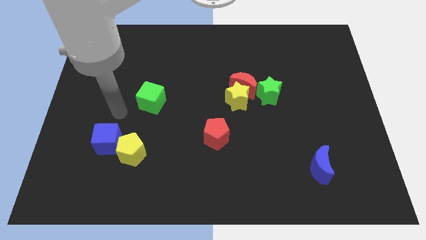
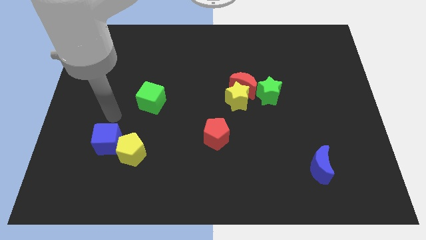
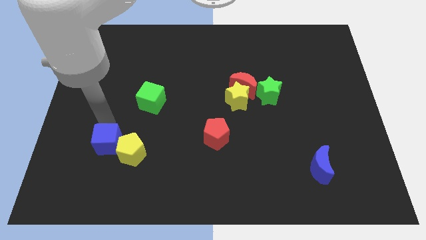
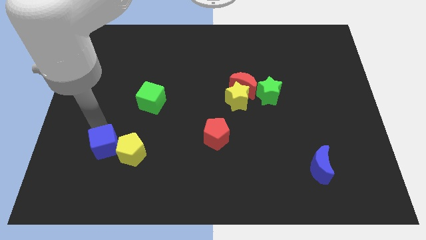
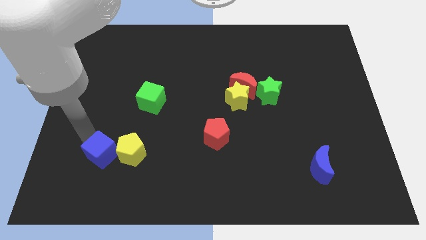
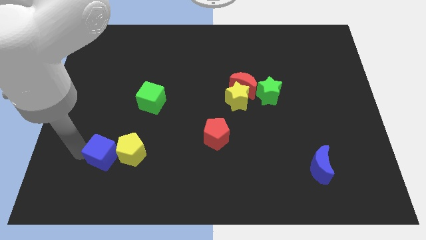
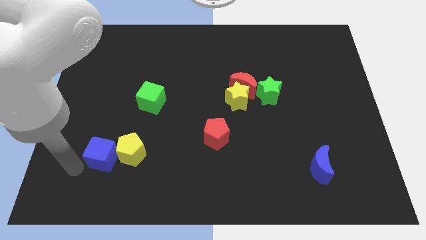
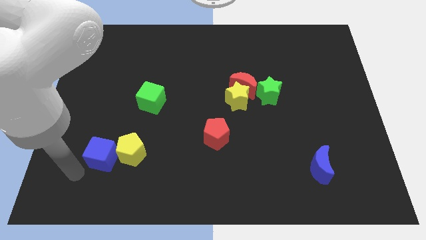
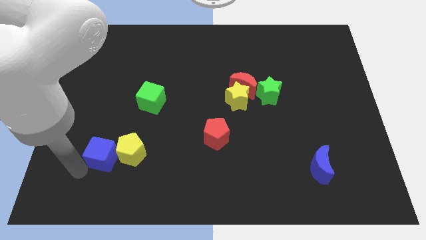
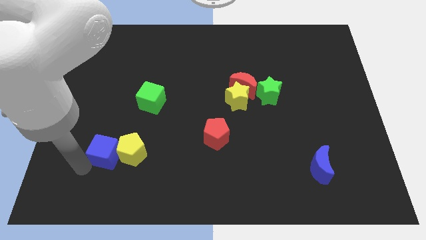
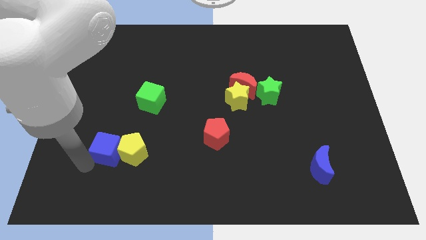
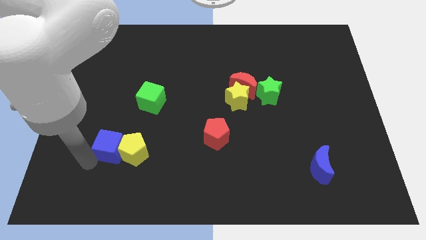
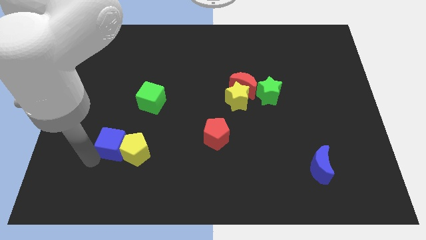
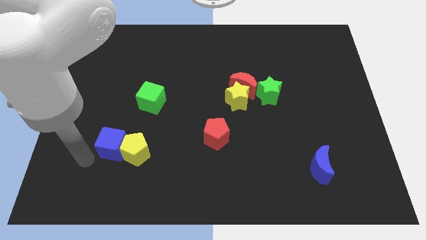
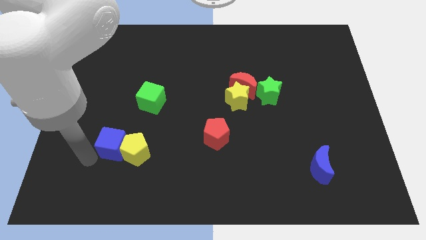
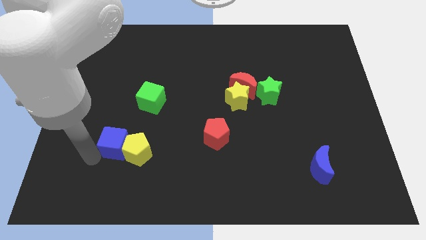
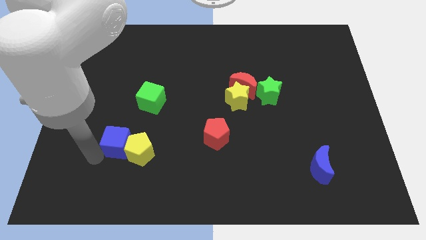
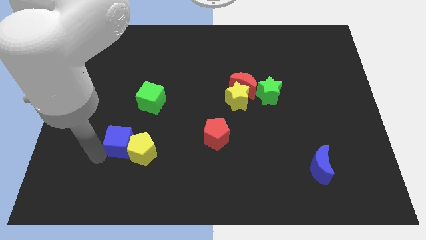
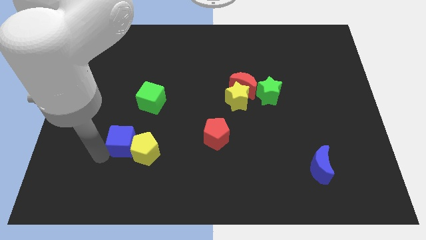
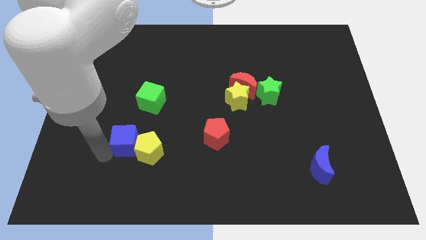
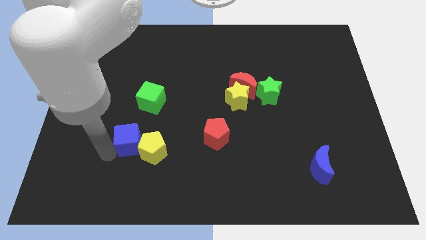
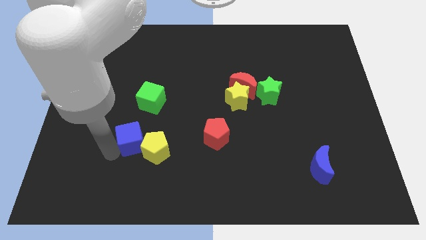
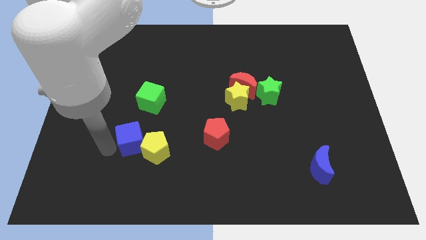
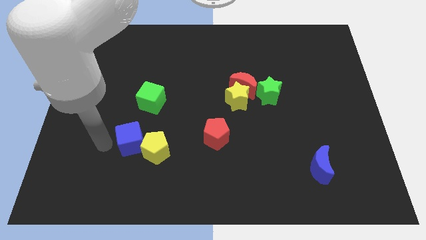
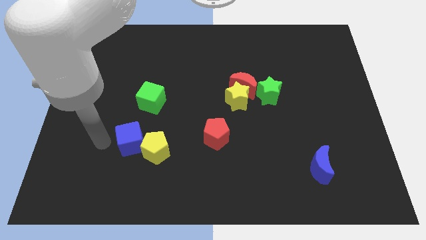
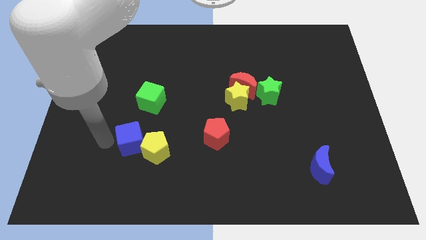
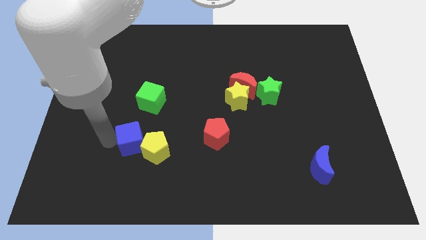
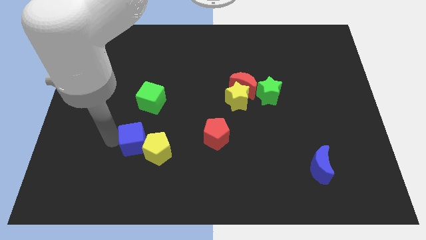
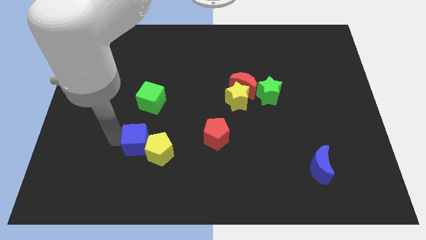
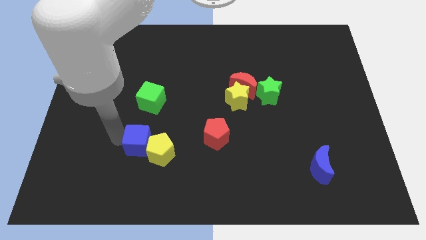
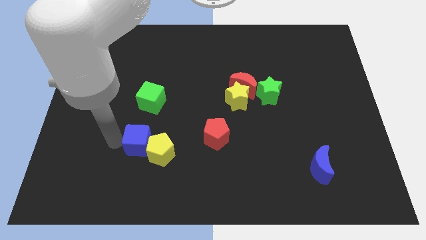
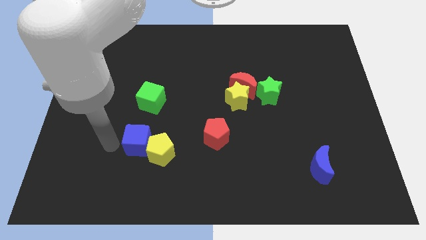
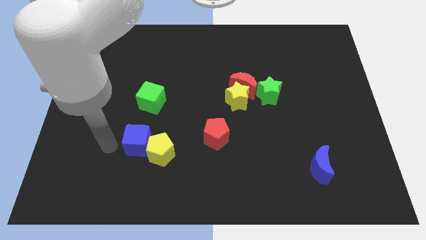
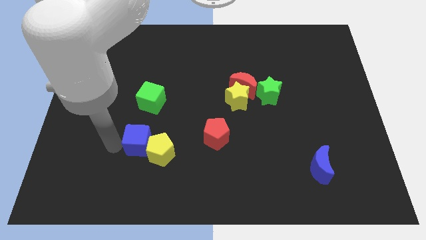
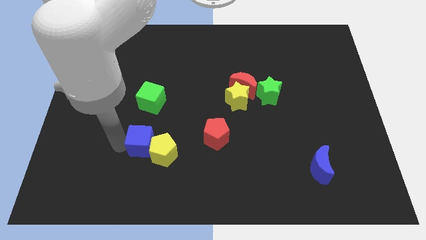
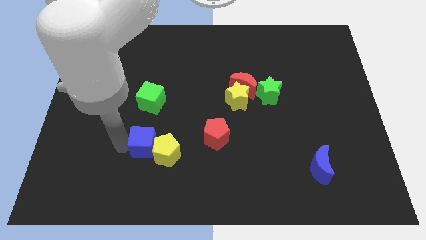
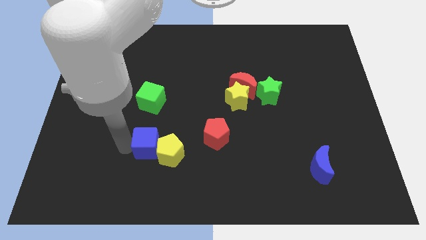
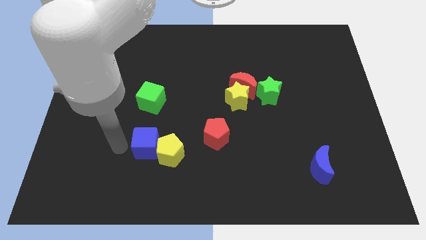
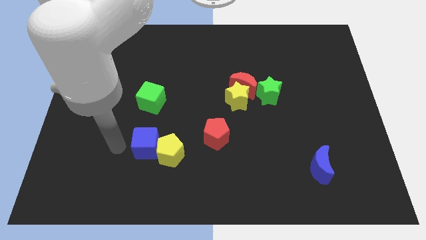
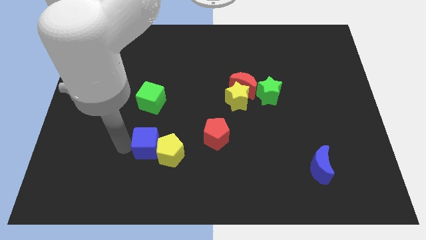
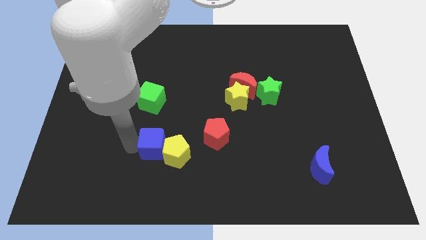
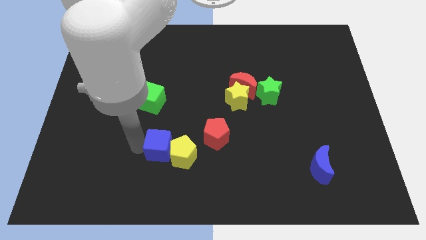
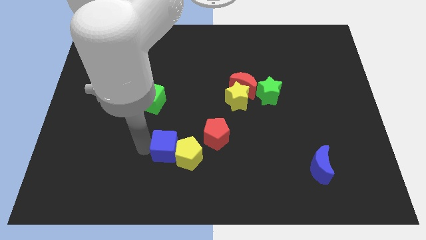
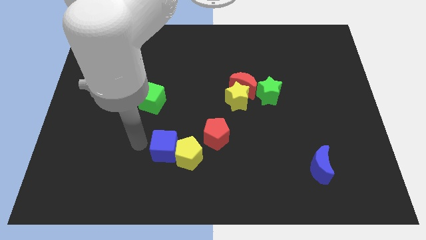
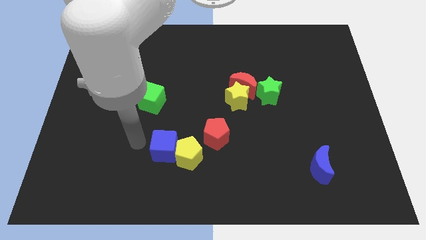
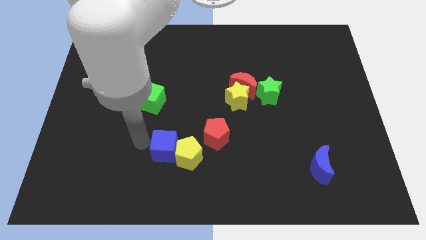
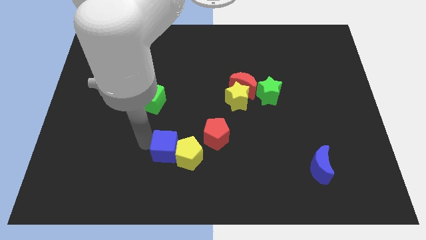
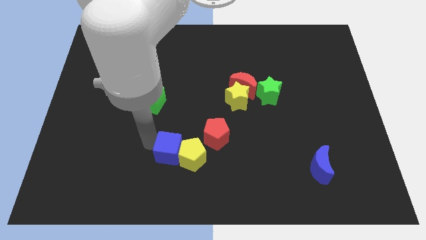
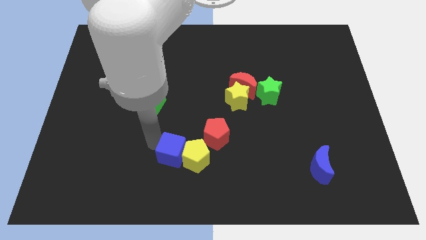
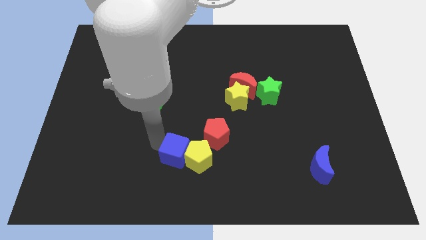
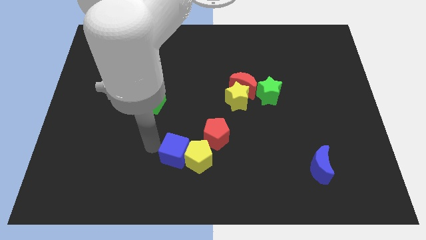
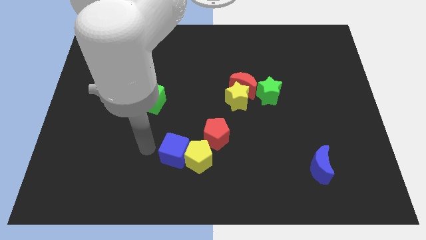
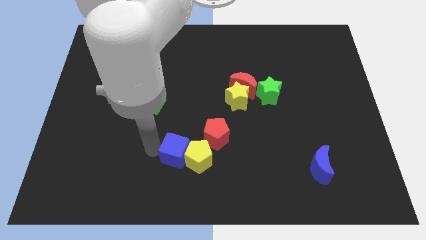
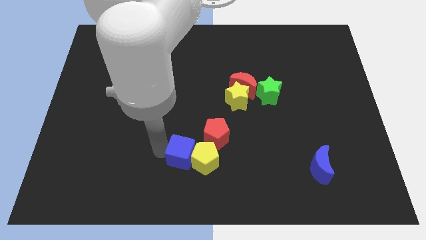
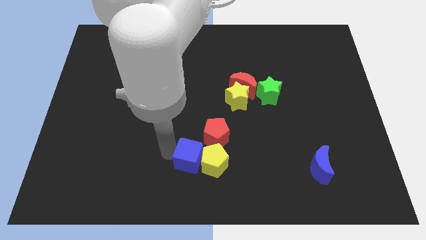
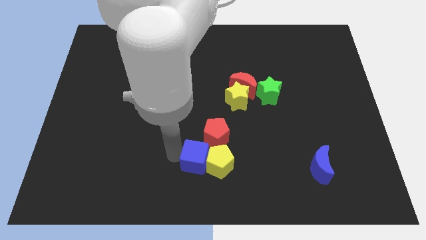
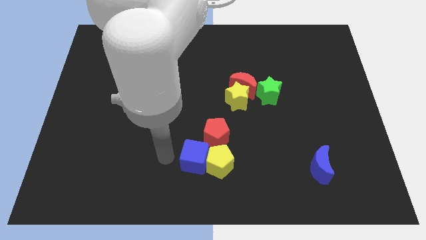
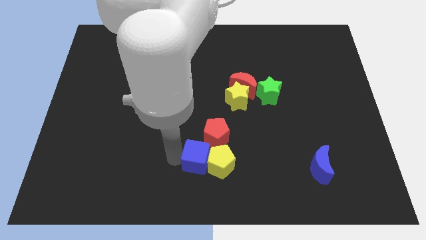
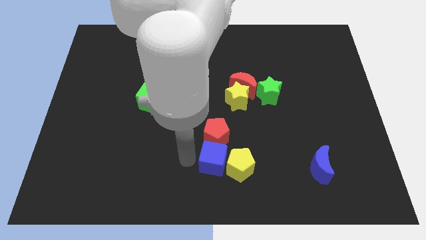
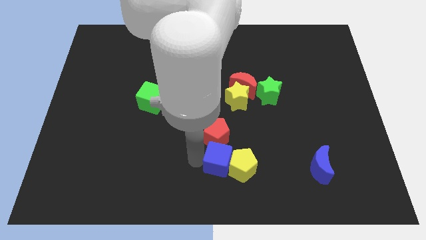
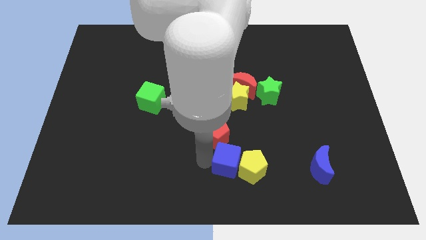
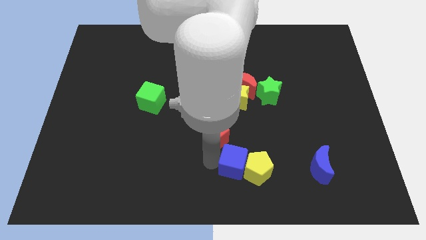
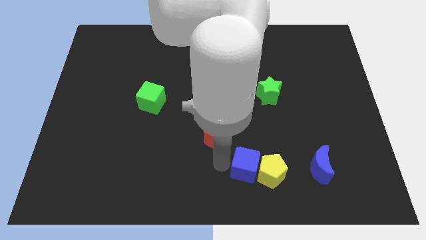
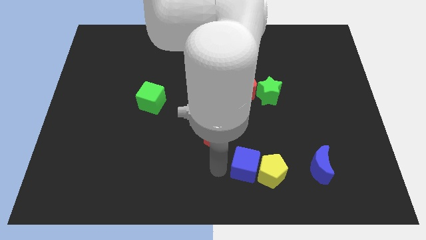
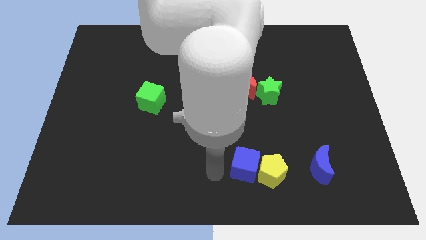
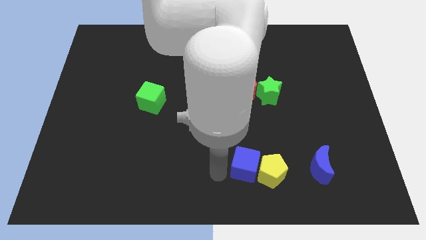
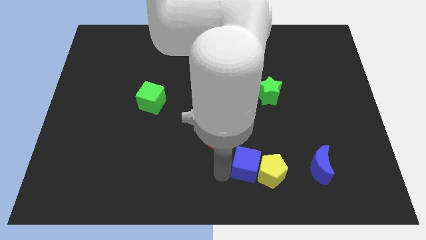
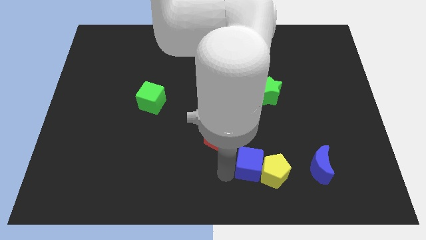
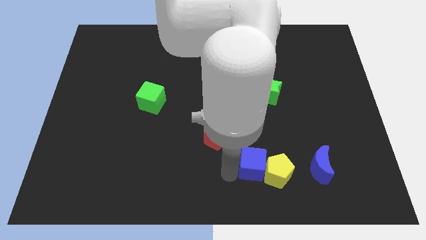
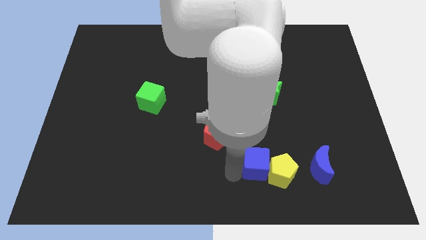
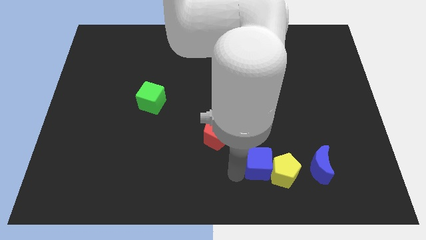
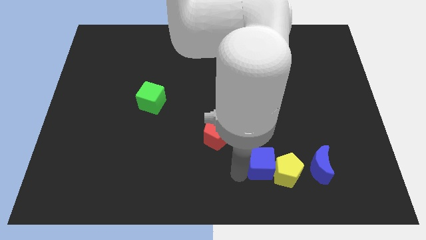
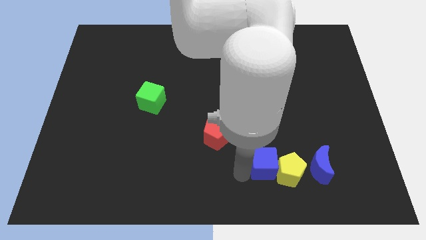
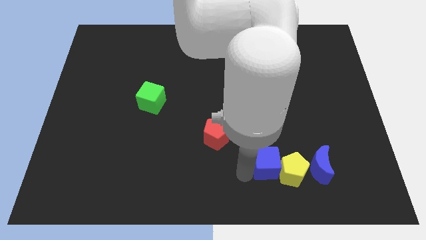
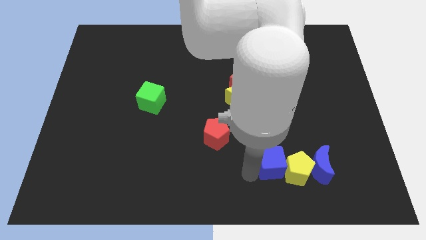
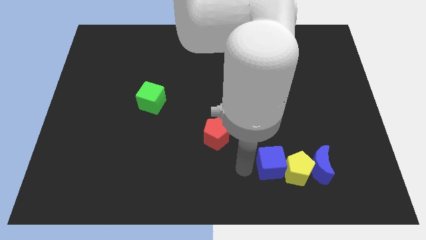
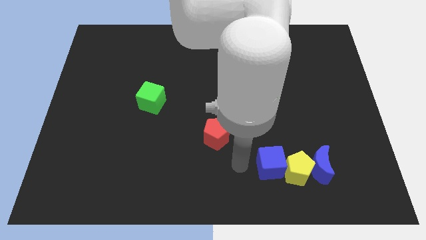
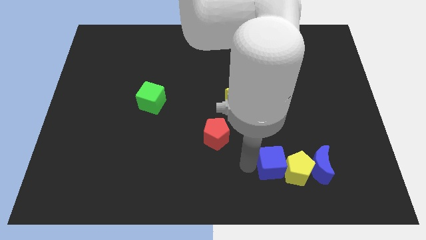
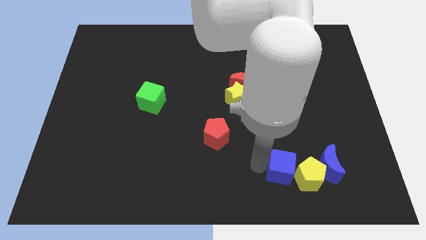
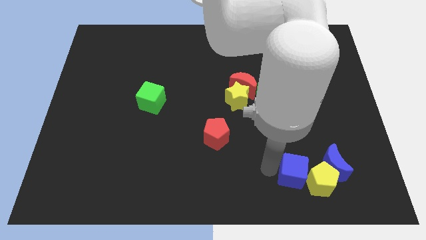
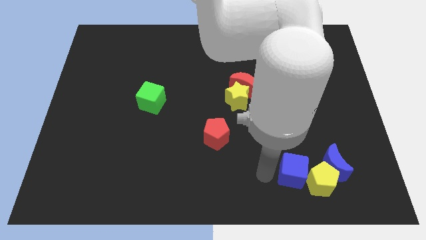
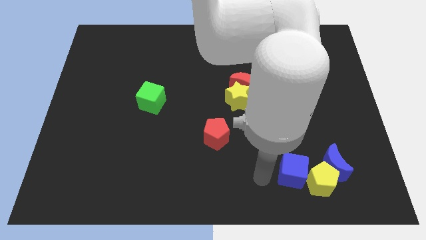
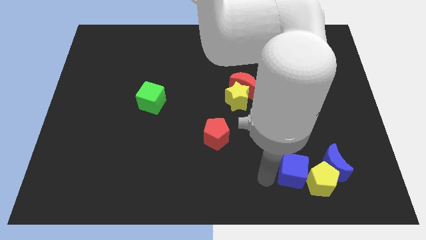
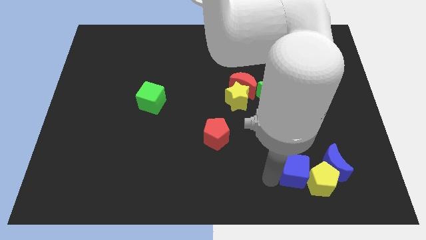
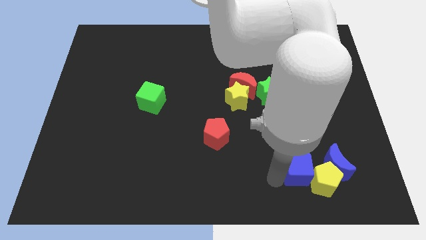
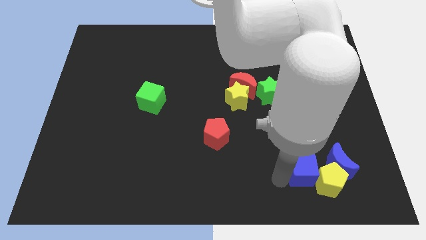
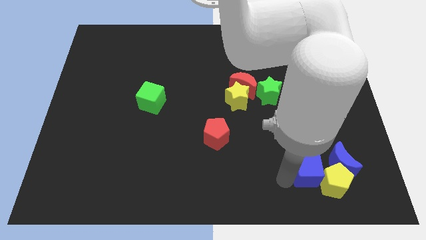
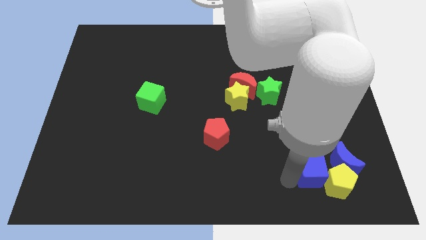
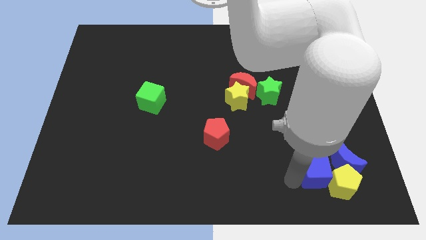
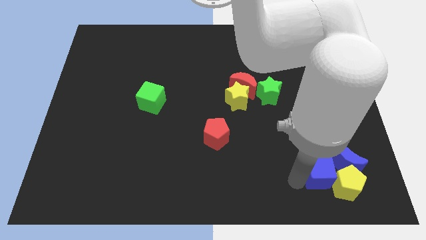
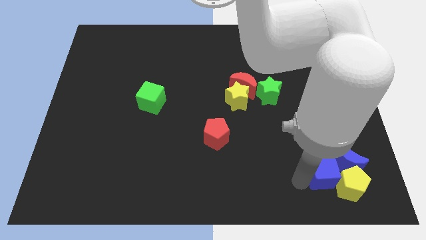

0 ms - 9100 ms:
slide the blue cube close to the blue moon
